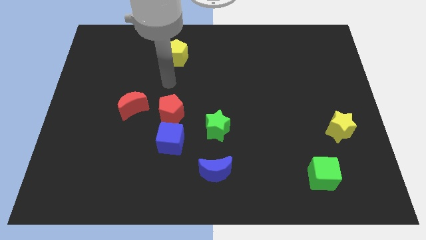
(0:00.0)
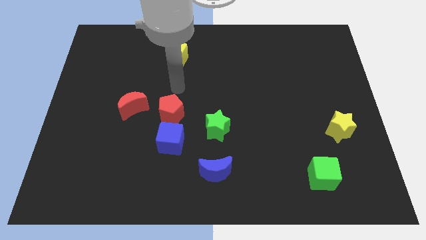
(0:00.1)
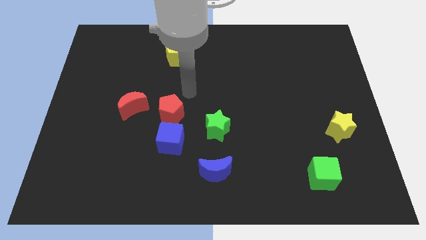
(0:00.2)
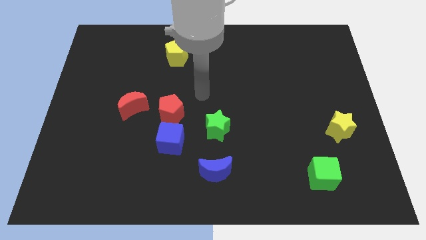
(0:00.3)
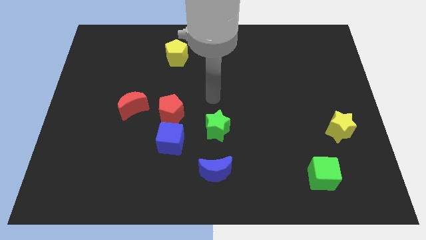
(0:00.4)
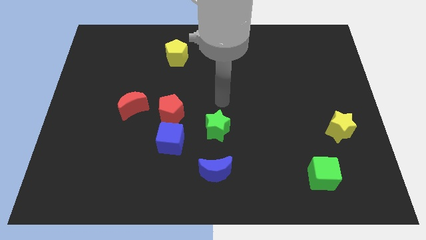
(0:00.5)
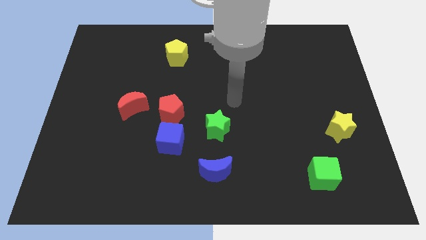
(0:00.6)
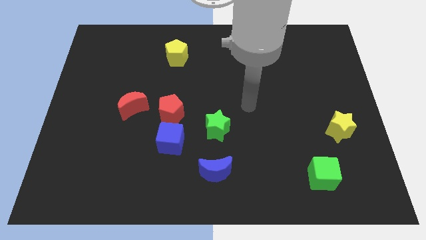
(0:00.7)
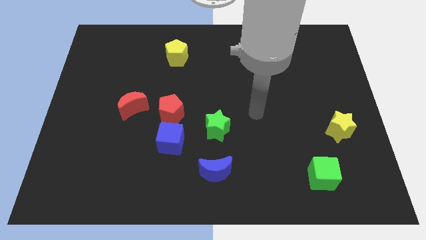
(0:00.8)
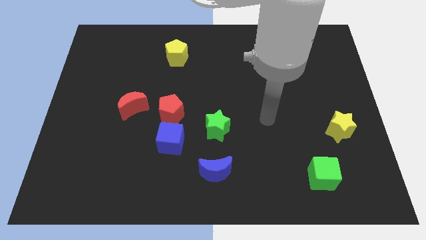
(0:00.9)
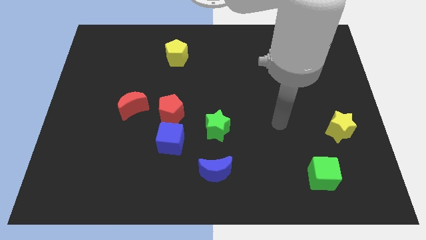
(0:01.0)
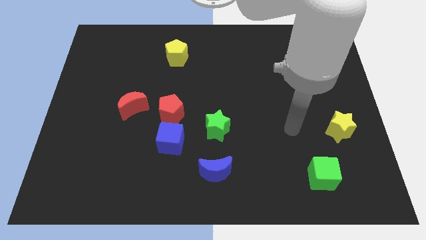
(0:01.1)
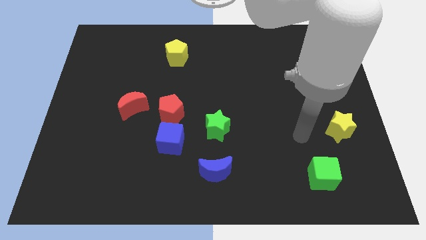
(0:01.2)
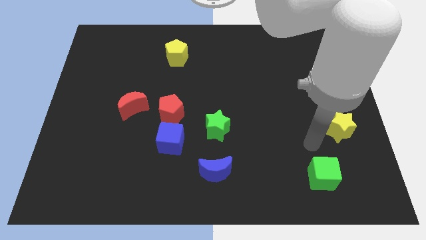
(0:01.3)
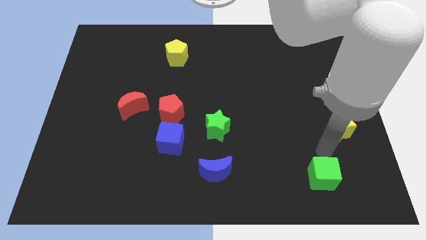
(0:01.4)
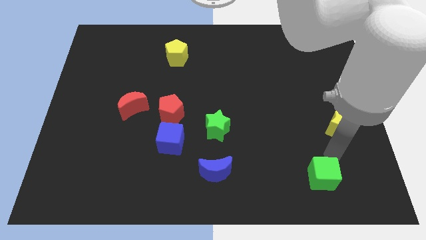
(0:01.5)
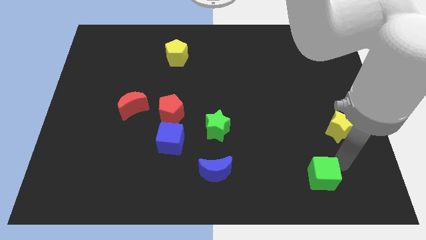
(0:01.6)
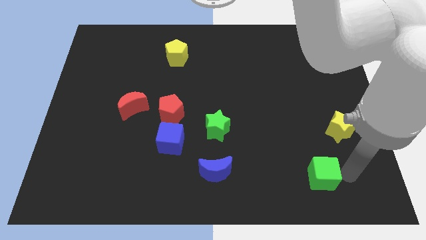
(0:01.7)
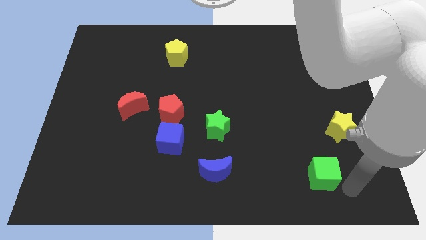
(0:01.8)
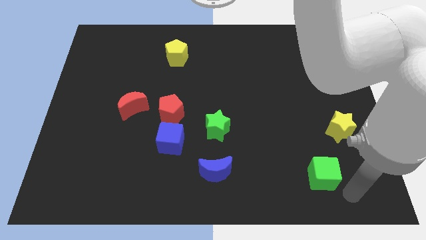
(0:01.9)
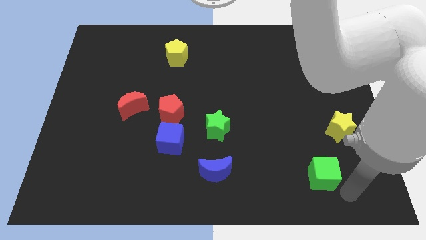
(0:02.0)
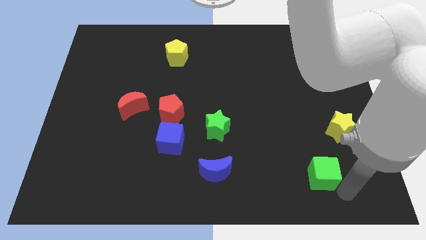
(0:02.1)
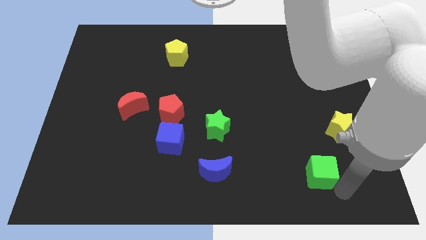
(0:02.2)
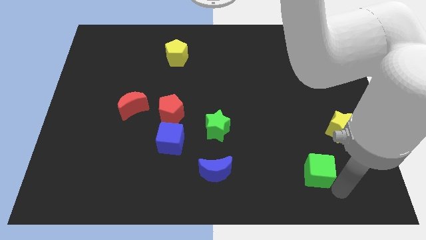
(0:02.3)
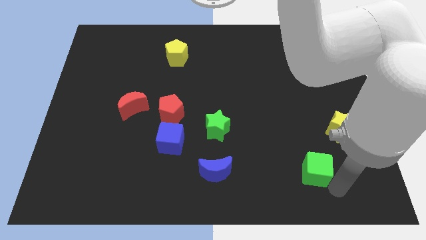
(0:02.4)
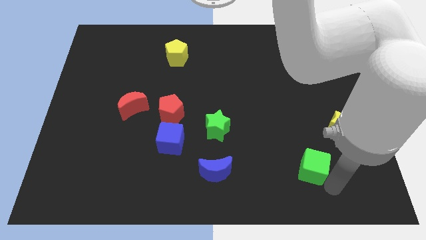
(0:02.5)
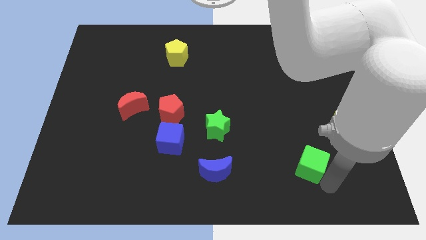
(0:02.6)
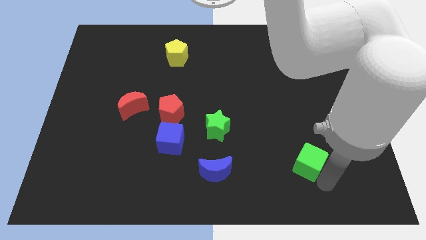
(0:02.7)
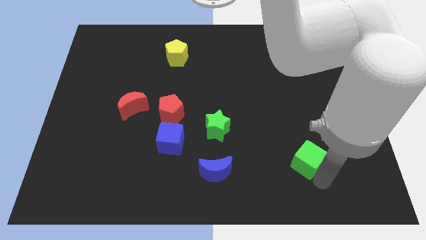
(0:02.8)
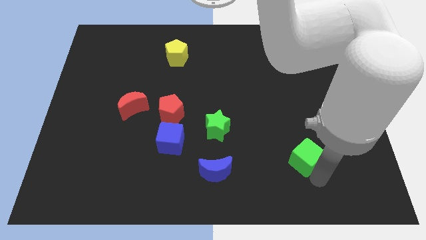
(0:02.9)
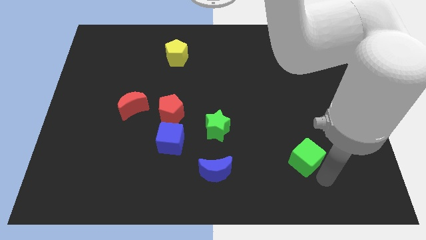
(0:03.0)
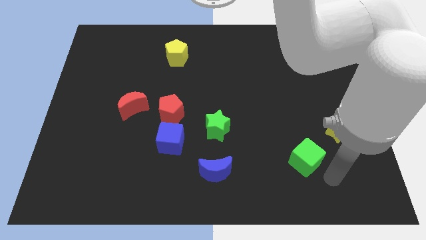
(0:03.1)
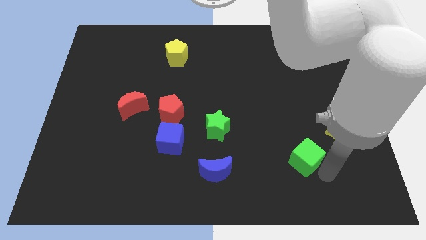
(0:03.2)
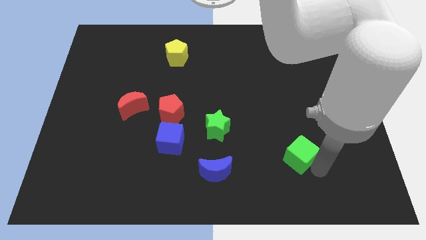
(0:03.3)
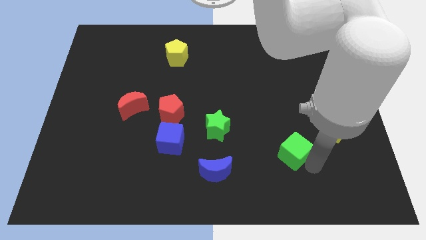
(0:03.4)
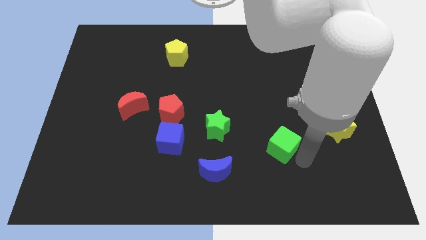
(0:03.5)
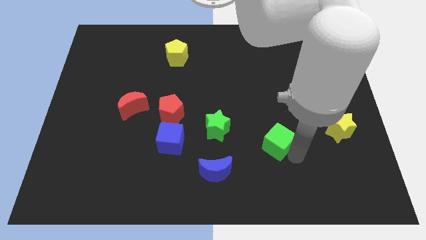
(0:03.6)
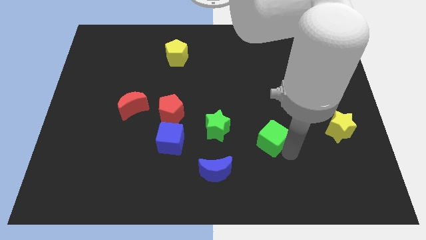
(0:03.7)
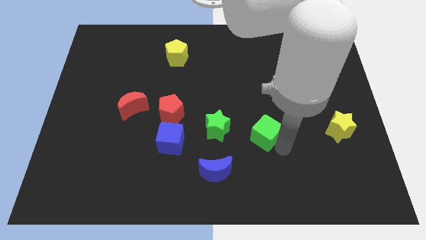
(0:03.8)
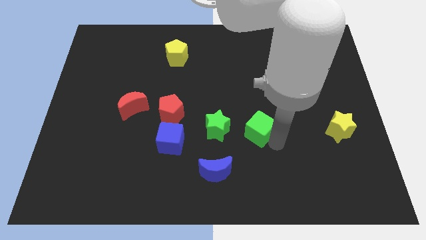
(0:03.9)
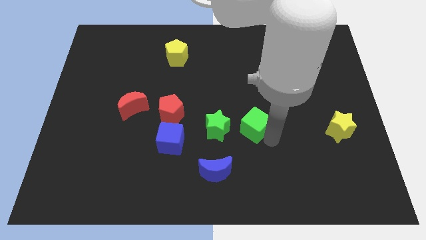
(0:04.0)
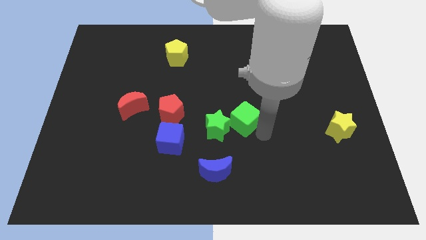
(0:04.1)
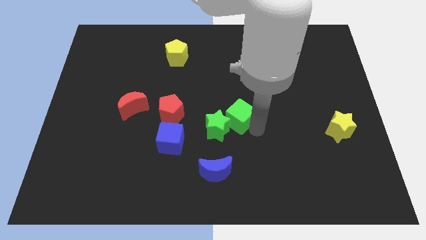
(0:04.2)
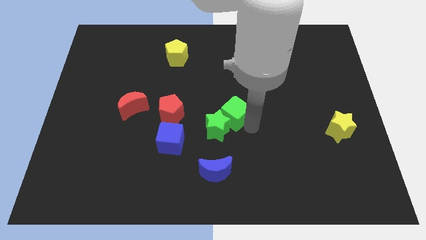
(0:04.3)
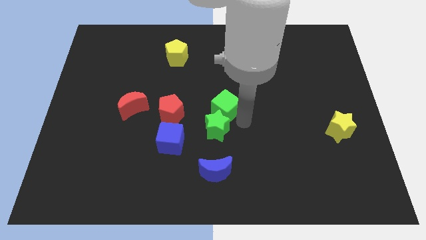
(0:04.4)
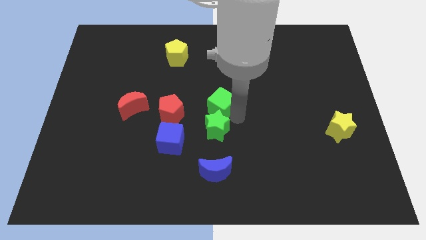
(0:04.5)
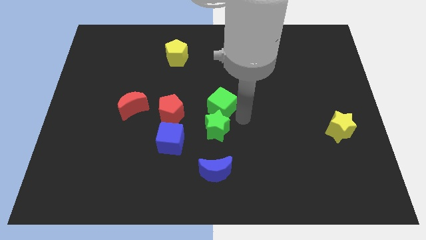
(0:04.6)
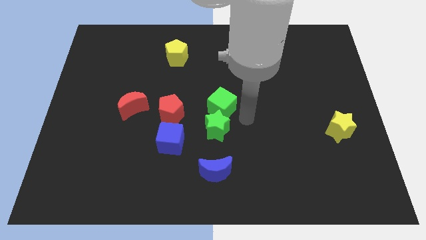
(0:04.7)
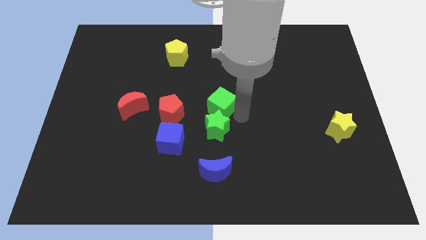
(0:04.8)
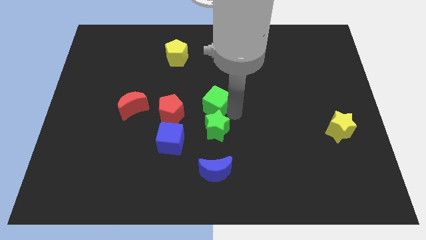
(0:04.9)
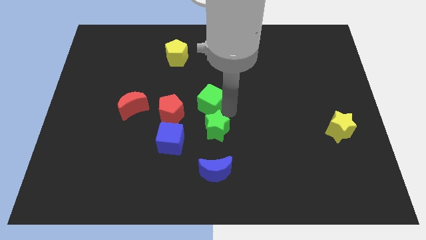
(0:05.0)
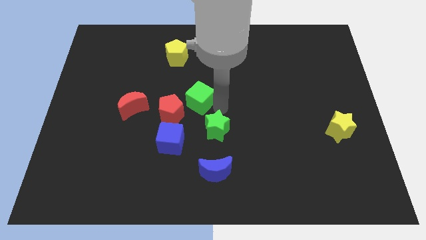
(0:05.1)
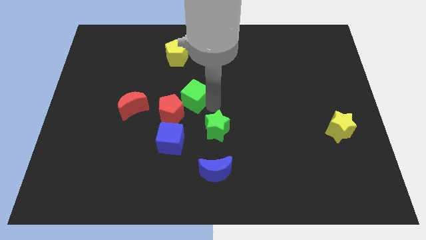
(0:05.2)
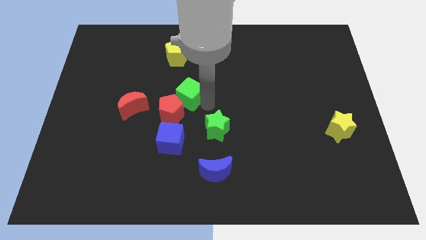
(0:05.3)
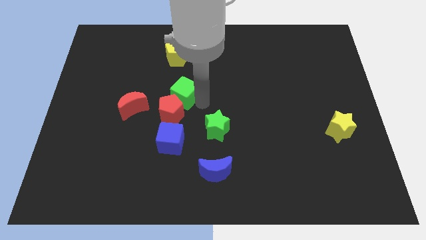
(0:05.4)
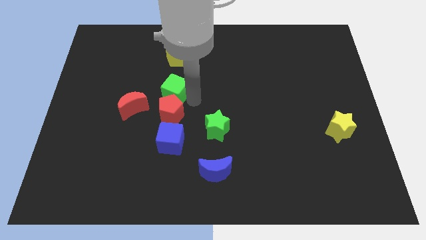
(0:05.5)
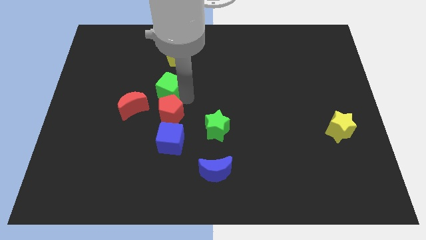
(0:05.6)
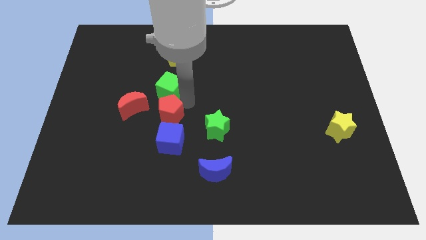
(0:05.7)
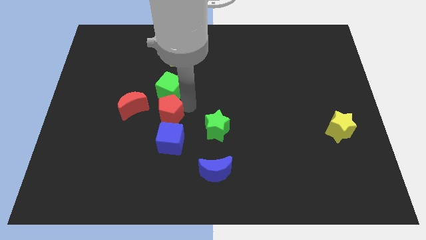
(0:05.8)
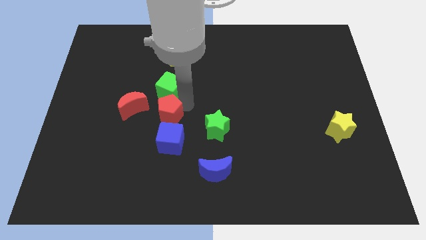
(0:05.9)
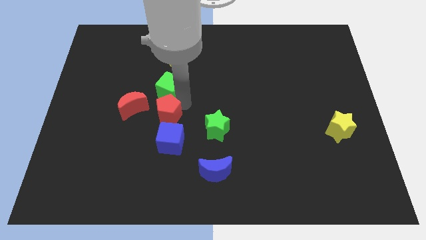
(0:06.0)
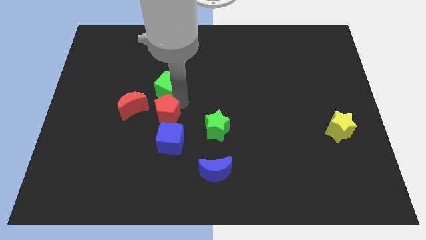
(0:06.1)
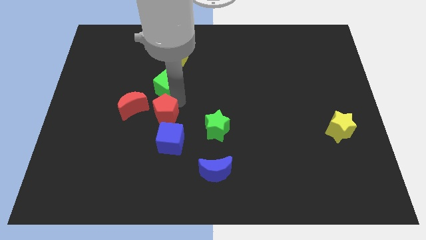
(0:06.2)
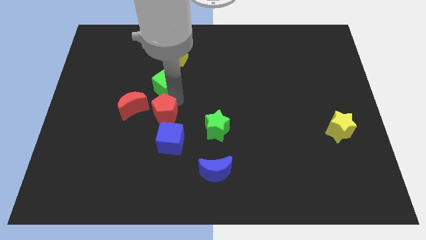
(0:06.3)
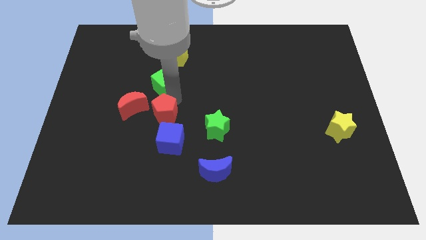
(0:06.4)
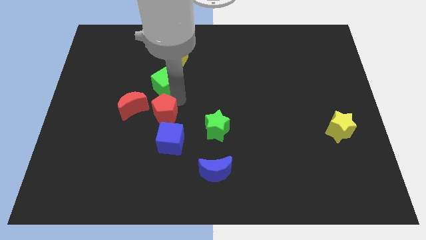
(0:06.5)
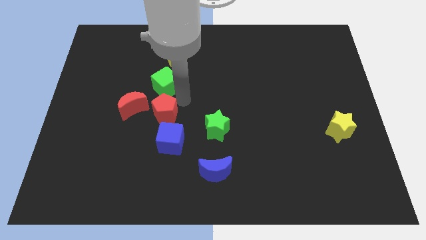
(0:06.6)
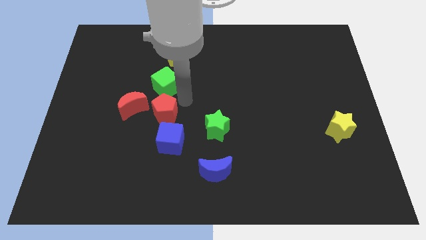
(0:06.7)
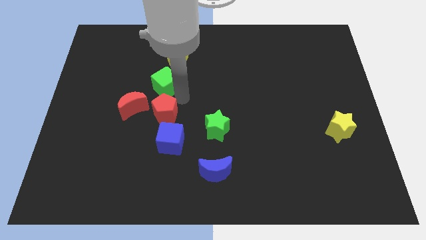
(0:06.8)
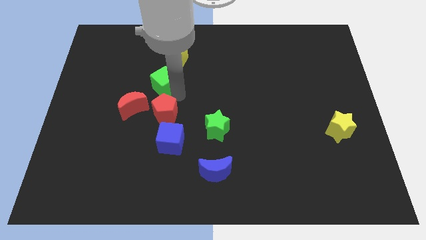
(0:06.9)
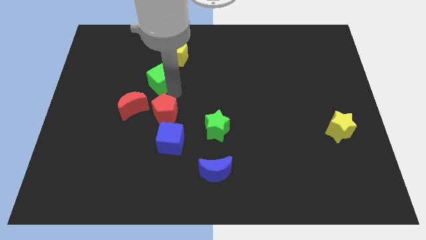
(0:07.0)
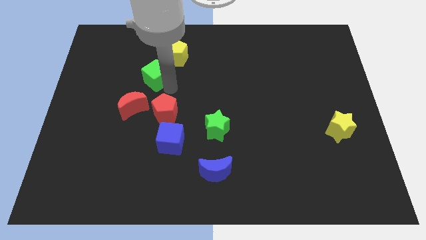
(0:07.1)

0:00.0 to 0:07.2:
push the green cube above the red moon
